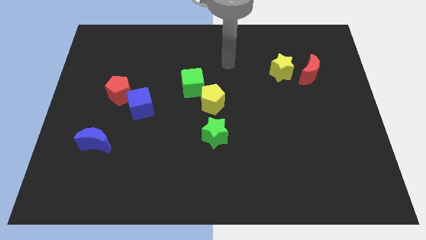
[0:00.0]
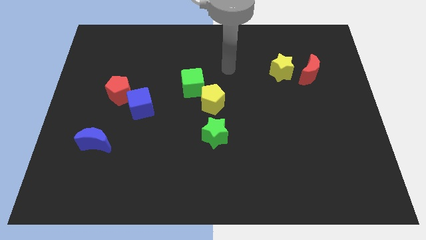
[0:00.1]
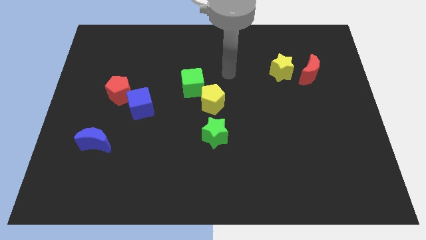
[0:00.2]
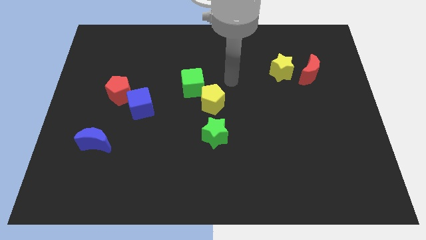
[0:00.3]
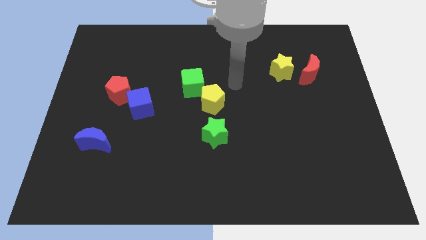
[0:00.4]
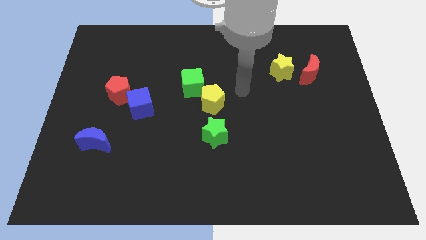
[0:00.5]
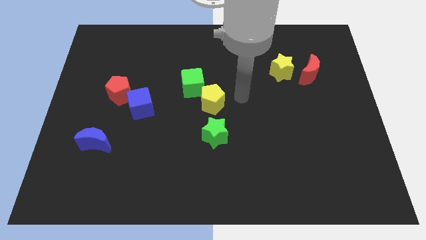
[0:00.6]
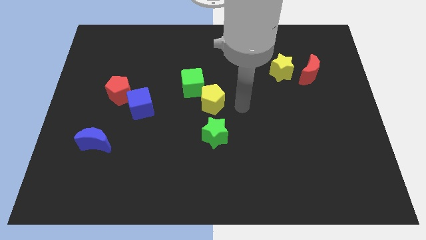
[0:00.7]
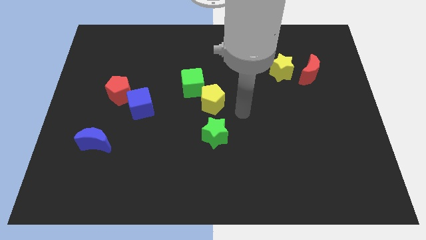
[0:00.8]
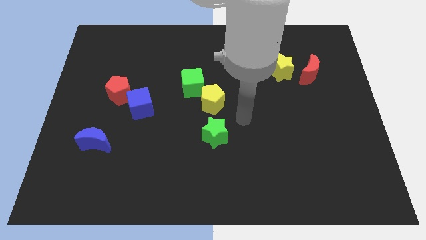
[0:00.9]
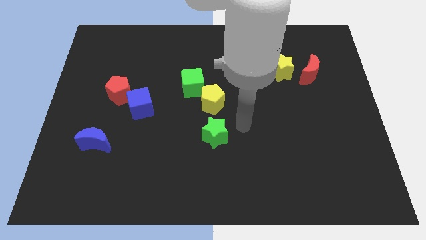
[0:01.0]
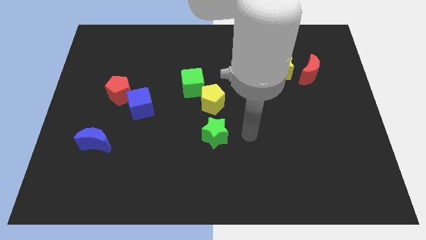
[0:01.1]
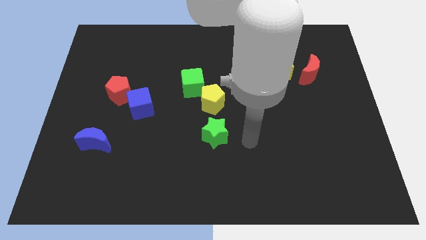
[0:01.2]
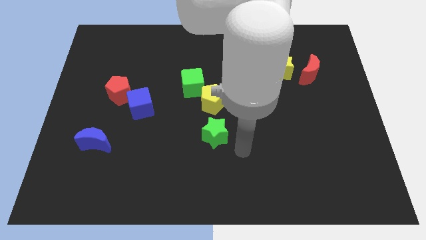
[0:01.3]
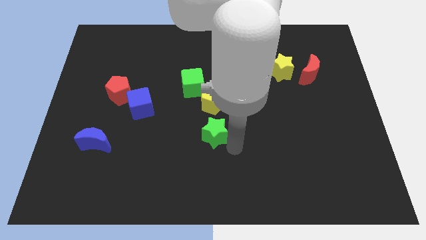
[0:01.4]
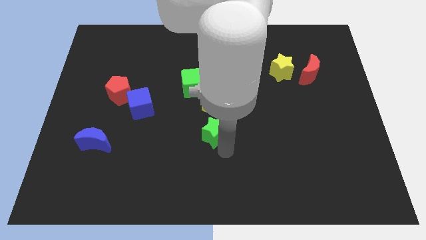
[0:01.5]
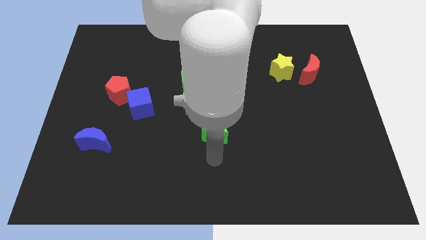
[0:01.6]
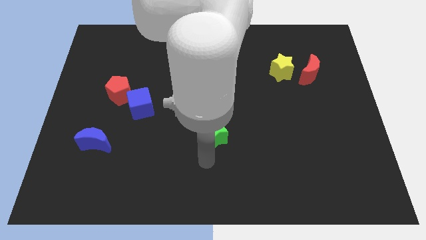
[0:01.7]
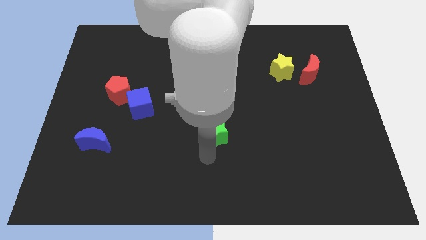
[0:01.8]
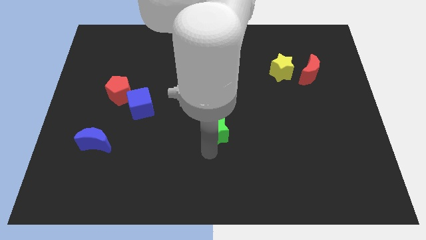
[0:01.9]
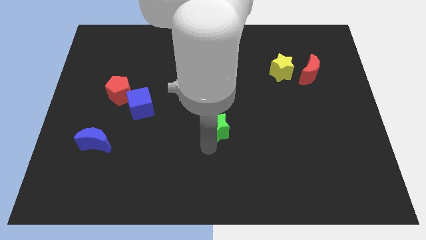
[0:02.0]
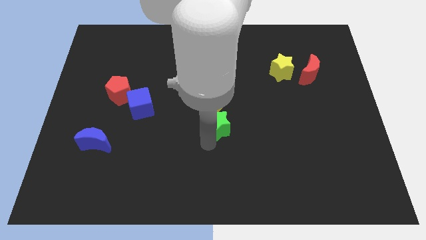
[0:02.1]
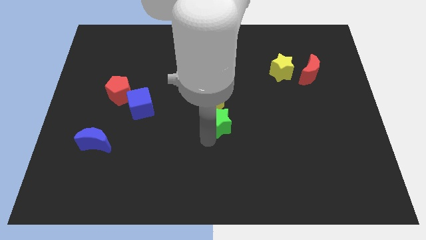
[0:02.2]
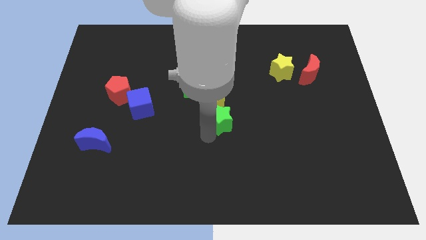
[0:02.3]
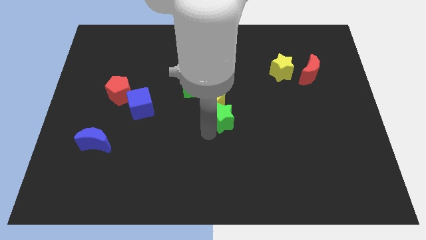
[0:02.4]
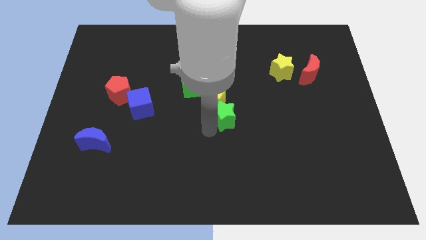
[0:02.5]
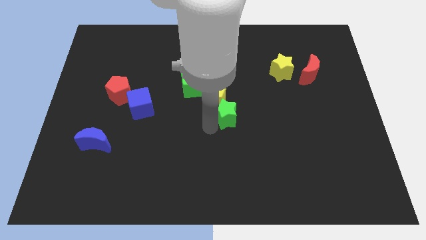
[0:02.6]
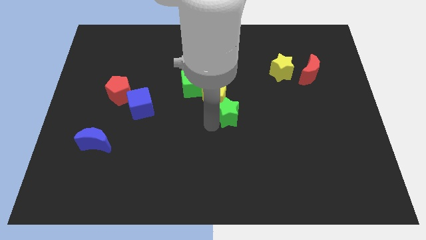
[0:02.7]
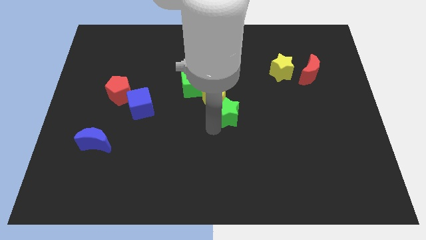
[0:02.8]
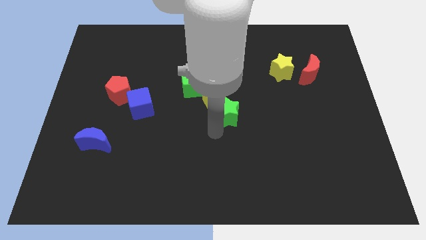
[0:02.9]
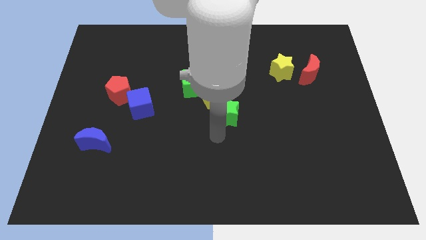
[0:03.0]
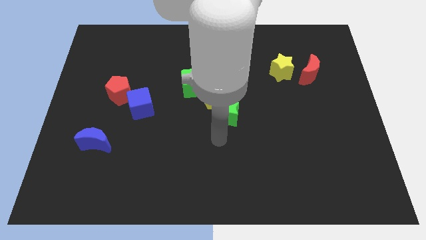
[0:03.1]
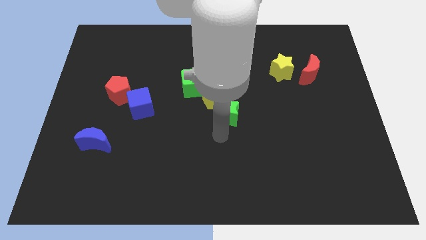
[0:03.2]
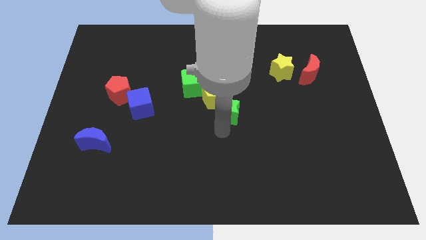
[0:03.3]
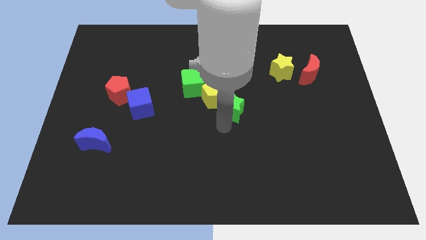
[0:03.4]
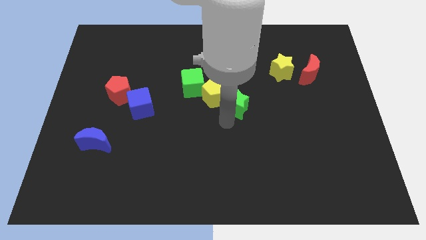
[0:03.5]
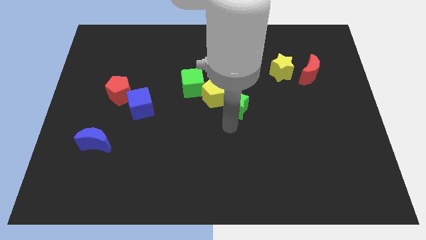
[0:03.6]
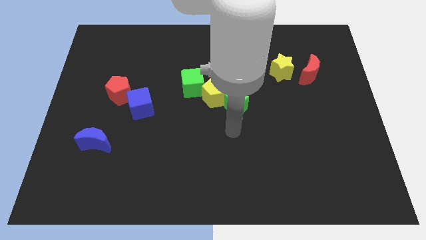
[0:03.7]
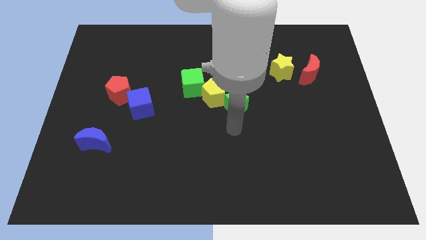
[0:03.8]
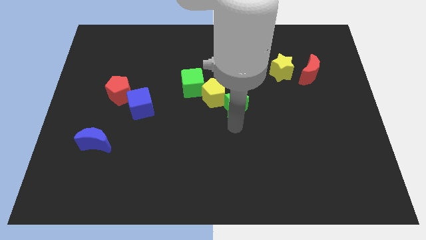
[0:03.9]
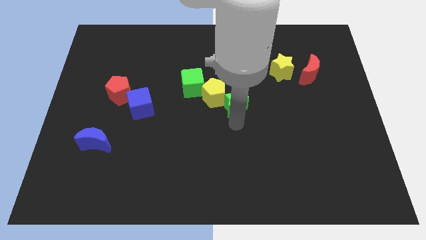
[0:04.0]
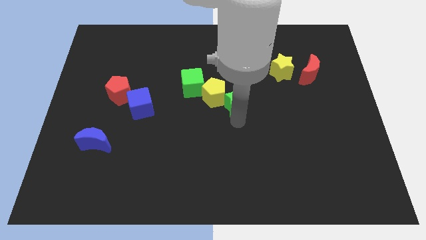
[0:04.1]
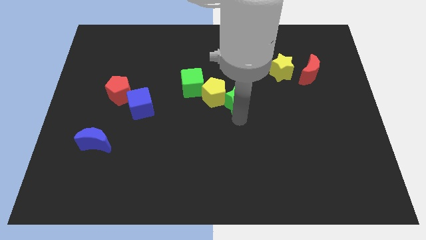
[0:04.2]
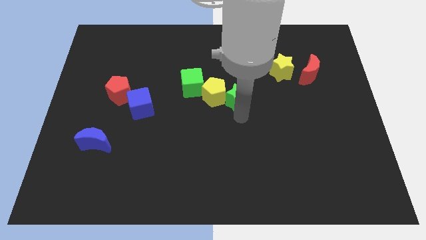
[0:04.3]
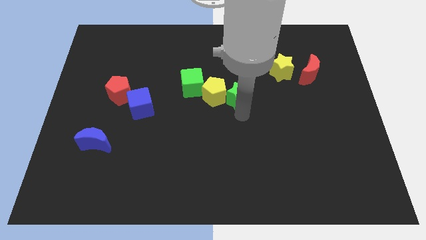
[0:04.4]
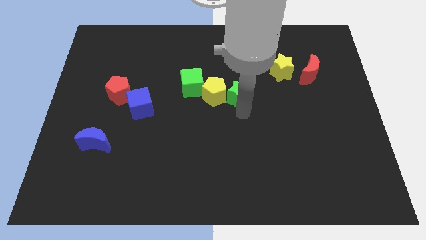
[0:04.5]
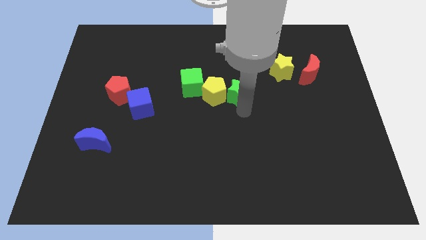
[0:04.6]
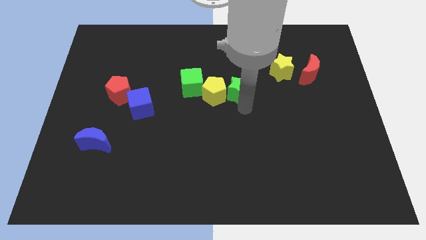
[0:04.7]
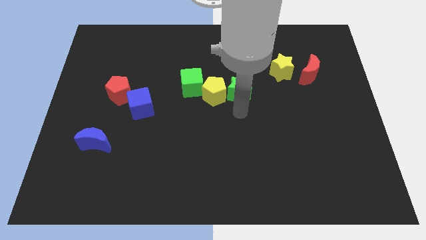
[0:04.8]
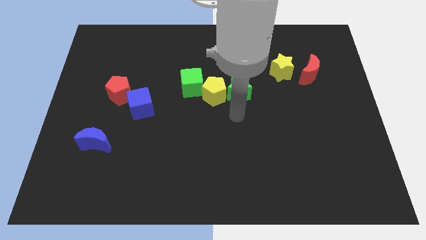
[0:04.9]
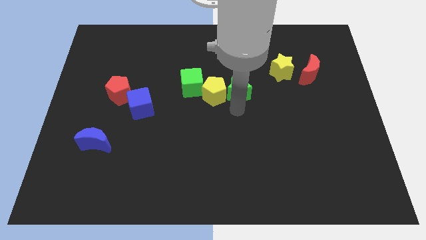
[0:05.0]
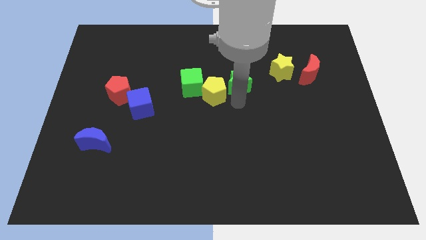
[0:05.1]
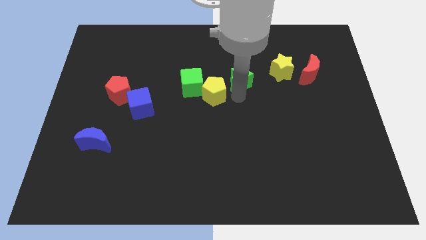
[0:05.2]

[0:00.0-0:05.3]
push the green star to the left of the yellow star

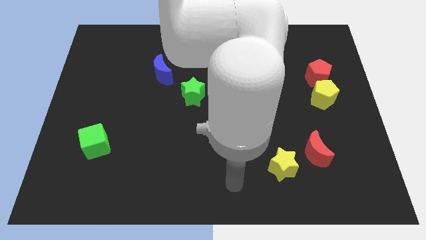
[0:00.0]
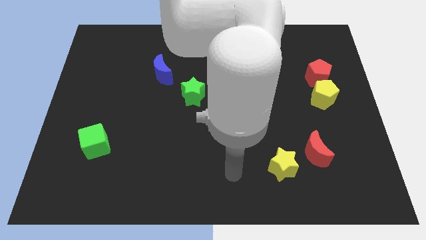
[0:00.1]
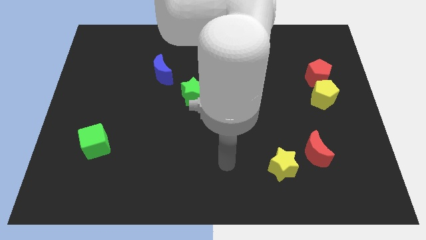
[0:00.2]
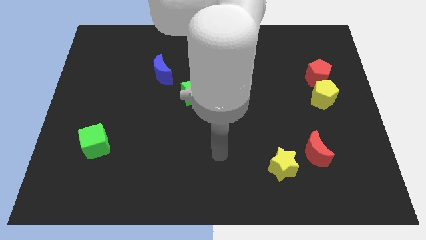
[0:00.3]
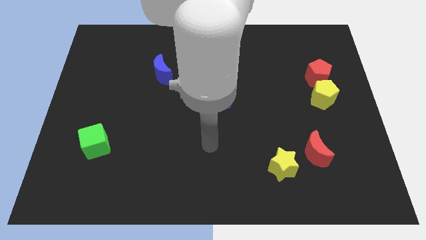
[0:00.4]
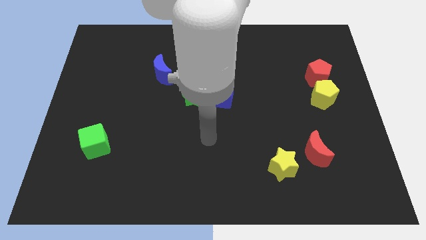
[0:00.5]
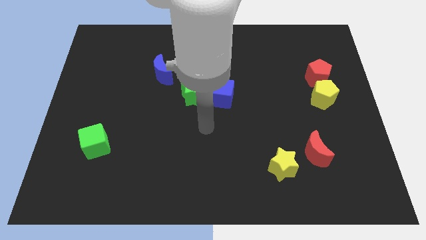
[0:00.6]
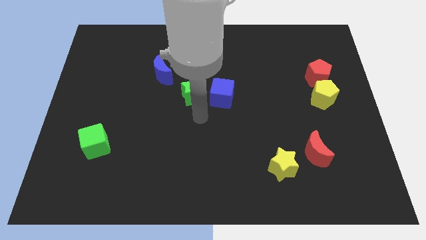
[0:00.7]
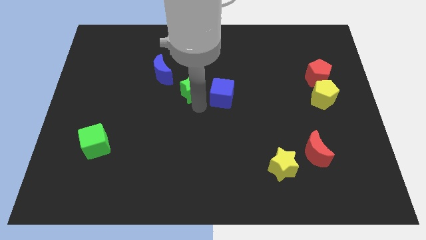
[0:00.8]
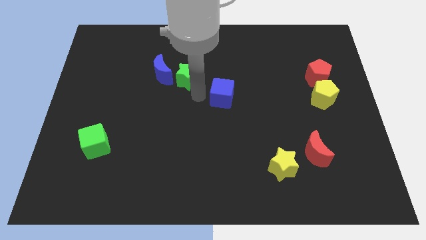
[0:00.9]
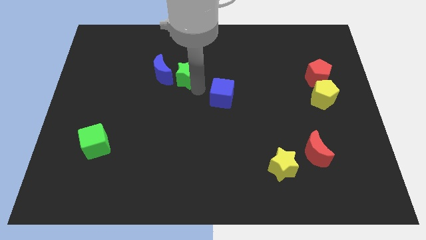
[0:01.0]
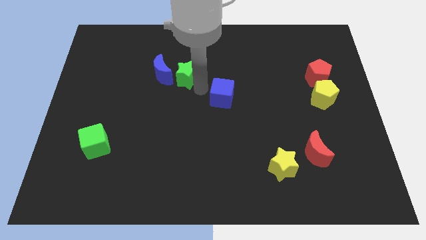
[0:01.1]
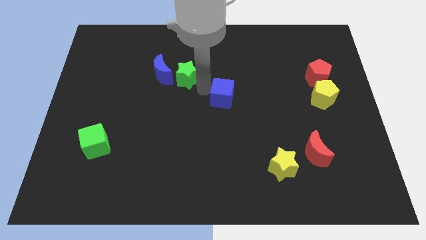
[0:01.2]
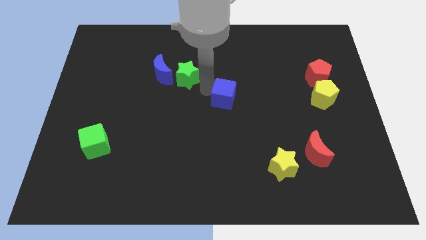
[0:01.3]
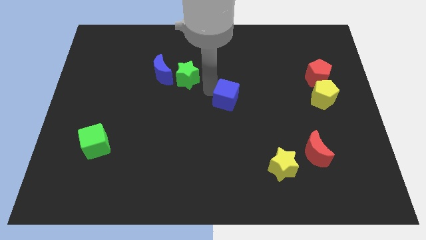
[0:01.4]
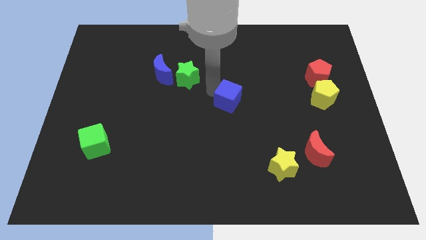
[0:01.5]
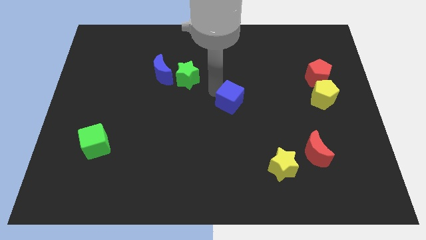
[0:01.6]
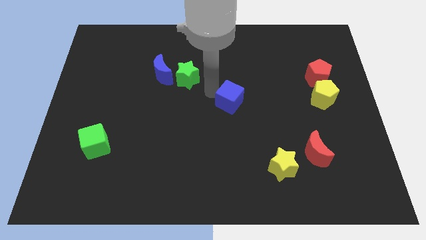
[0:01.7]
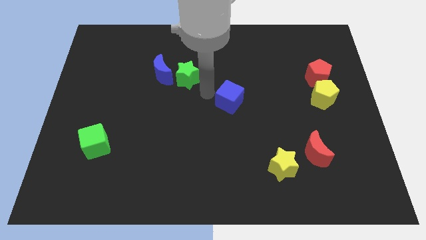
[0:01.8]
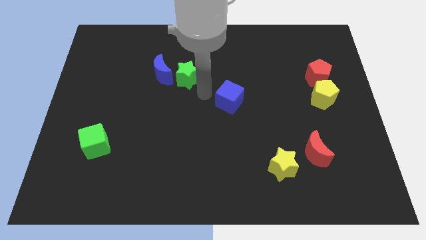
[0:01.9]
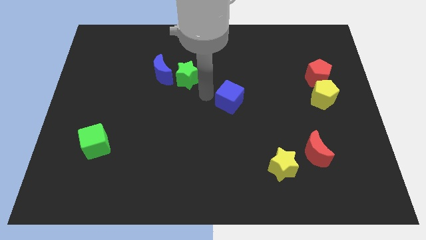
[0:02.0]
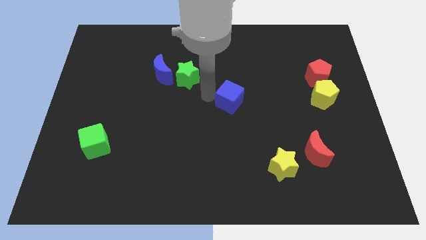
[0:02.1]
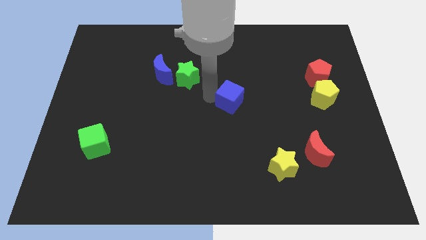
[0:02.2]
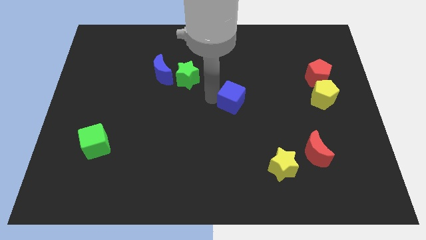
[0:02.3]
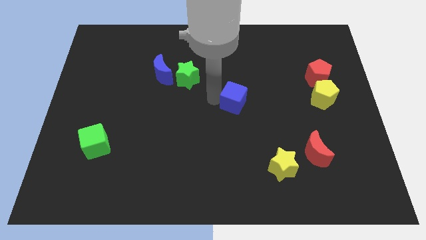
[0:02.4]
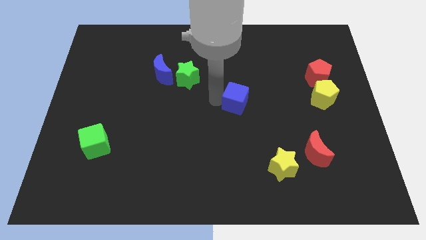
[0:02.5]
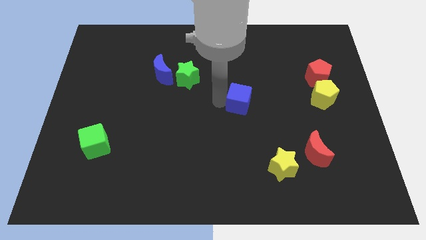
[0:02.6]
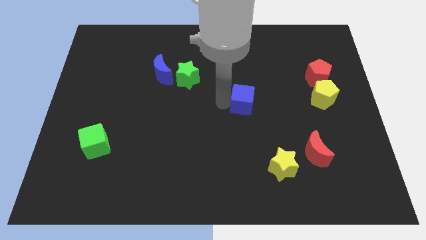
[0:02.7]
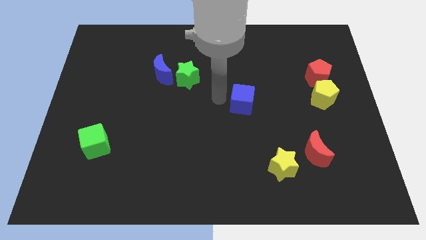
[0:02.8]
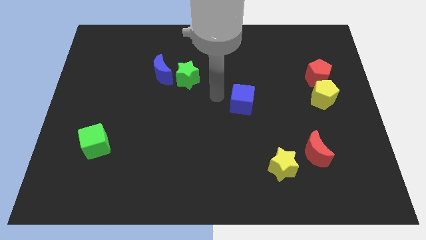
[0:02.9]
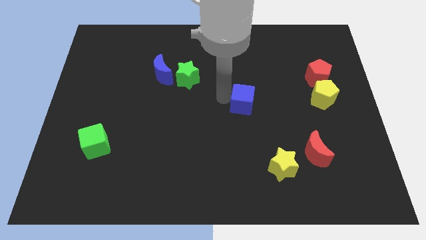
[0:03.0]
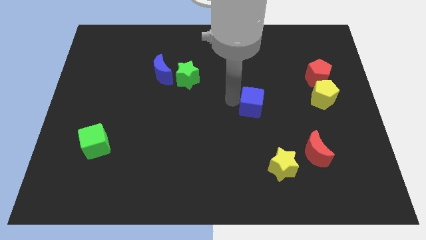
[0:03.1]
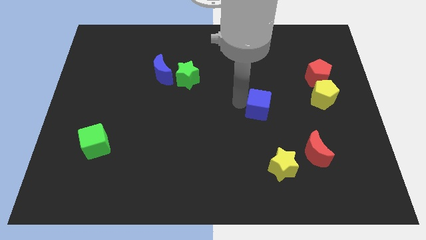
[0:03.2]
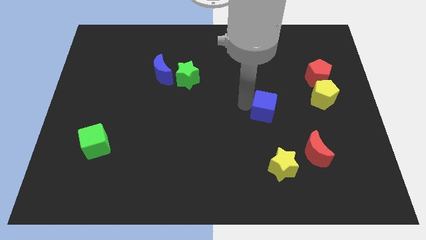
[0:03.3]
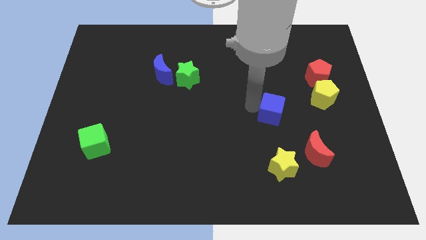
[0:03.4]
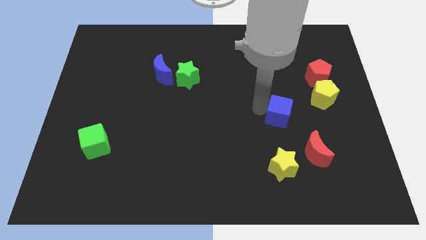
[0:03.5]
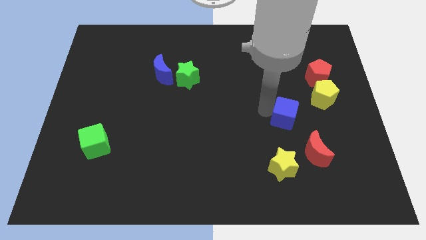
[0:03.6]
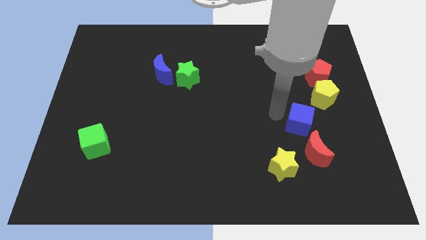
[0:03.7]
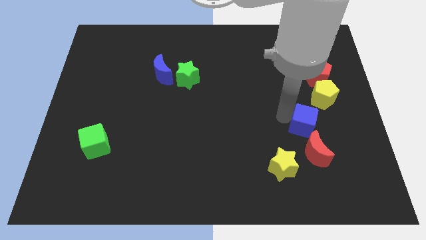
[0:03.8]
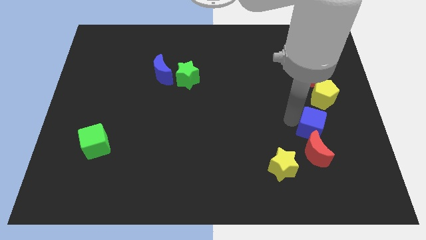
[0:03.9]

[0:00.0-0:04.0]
slide the blue cube to the bottom side of the yellow pentagon
